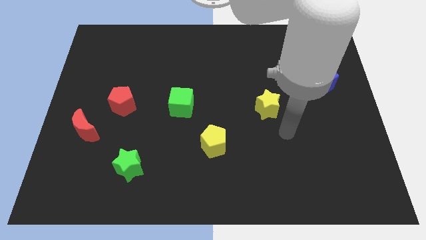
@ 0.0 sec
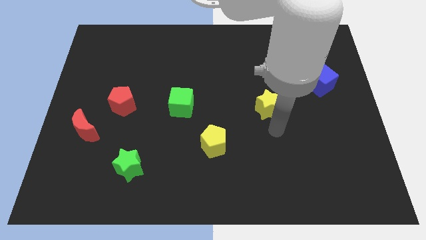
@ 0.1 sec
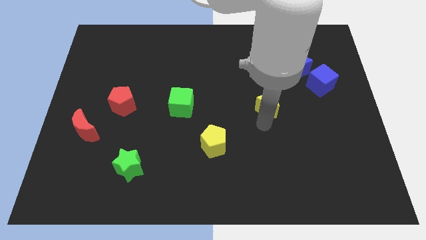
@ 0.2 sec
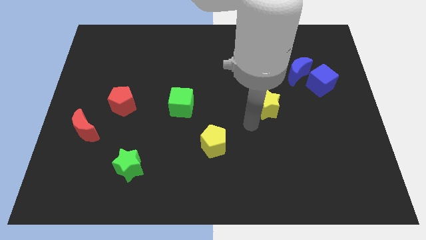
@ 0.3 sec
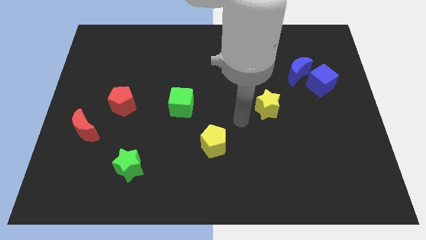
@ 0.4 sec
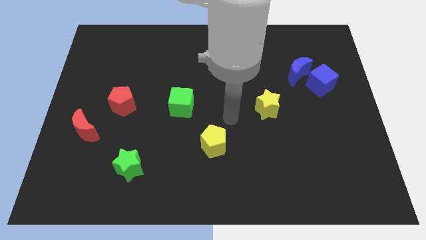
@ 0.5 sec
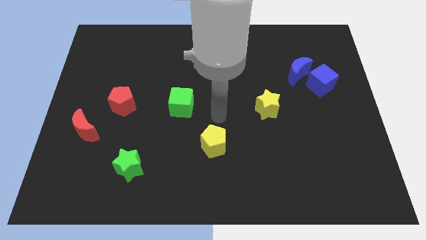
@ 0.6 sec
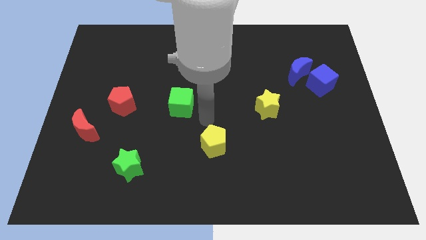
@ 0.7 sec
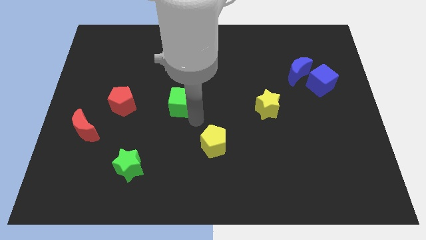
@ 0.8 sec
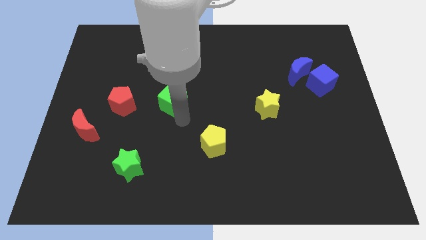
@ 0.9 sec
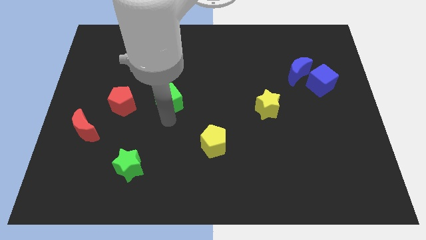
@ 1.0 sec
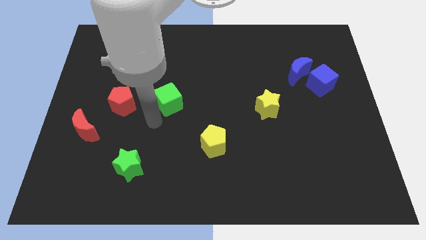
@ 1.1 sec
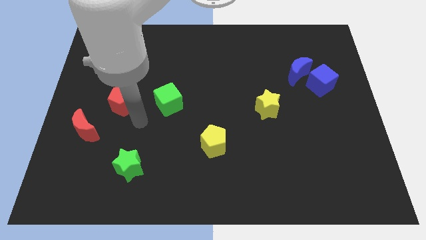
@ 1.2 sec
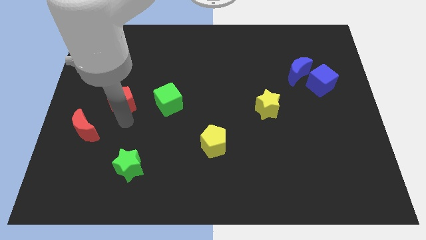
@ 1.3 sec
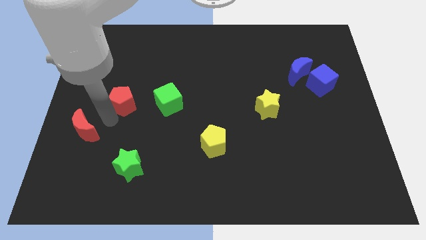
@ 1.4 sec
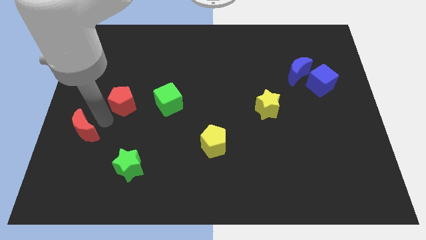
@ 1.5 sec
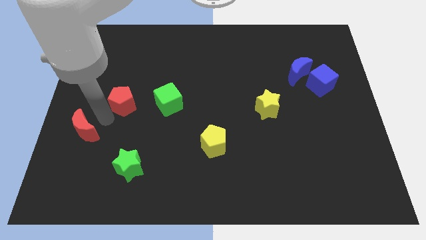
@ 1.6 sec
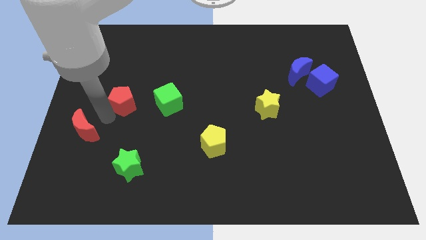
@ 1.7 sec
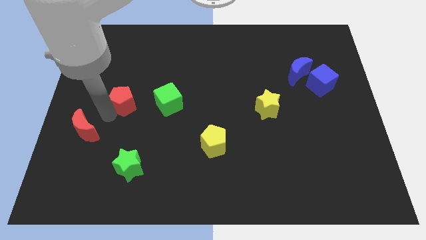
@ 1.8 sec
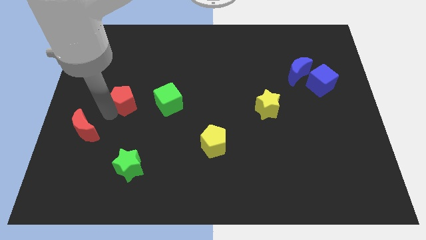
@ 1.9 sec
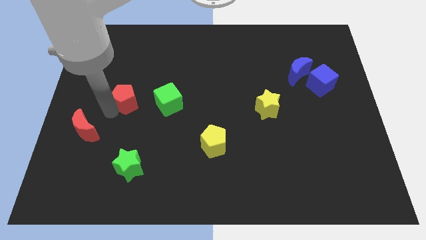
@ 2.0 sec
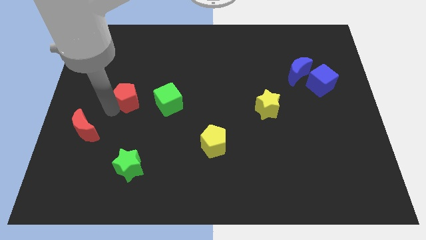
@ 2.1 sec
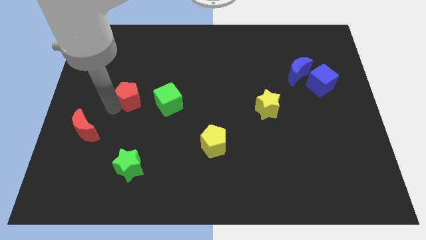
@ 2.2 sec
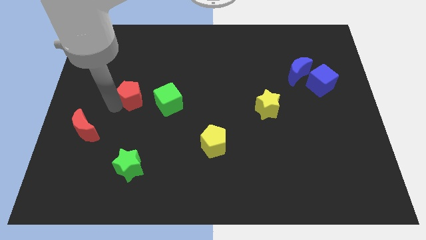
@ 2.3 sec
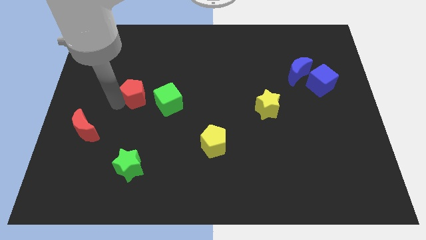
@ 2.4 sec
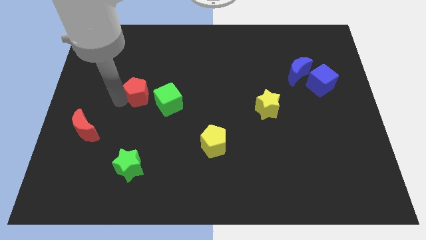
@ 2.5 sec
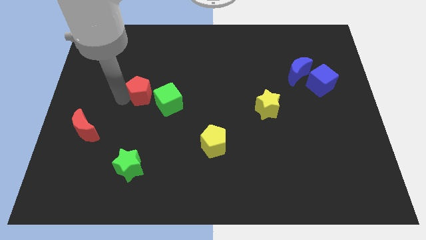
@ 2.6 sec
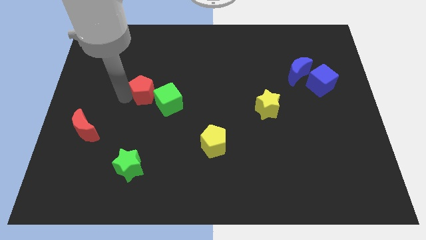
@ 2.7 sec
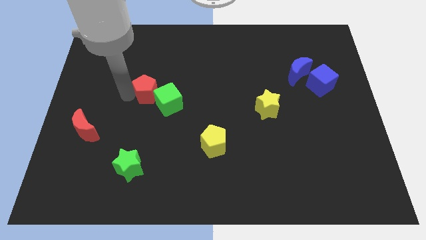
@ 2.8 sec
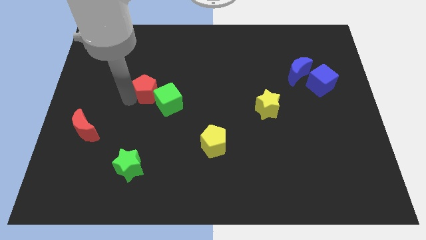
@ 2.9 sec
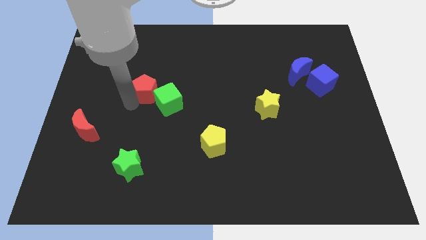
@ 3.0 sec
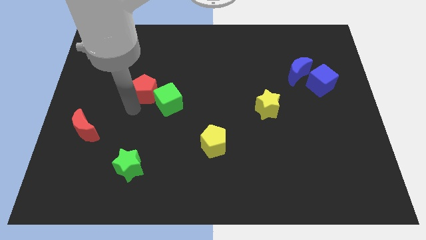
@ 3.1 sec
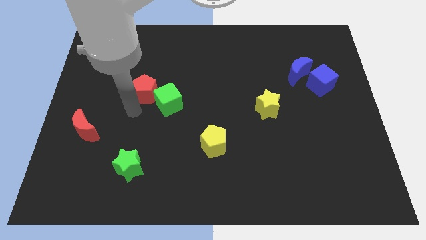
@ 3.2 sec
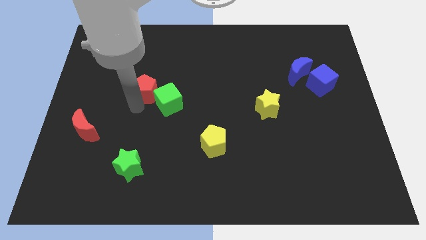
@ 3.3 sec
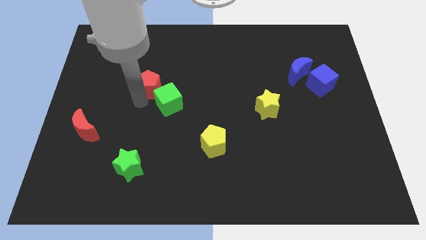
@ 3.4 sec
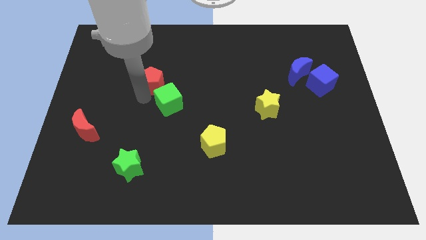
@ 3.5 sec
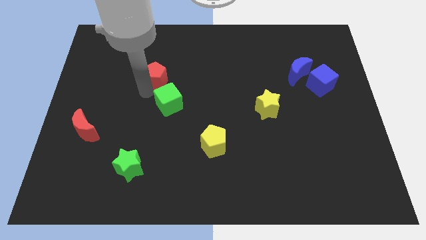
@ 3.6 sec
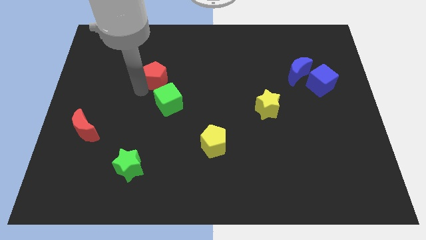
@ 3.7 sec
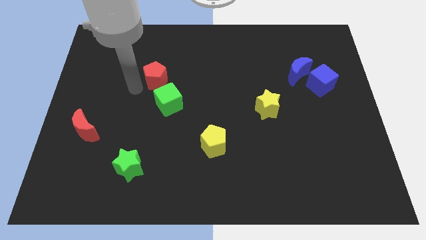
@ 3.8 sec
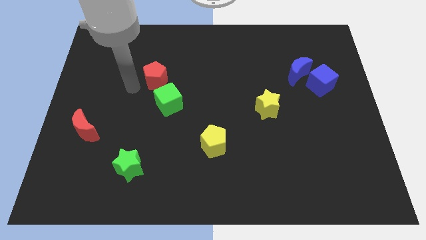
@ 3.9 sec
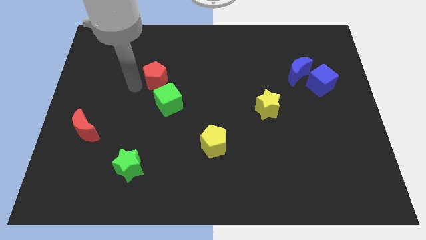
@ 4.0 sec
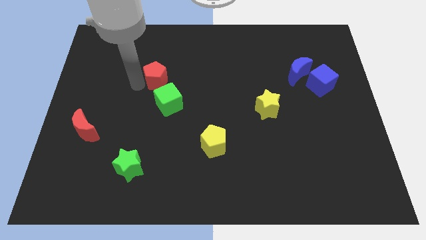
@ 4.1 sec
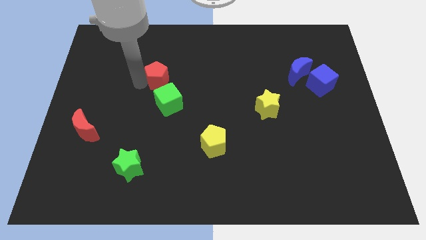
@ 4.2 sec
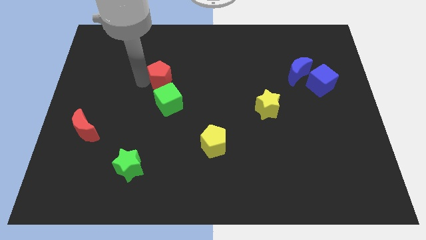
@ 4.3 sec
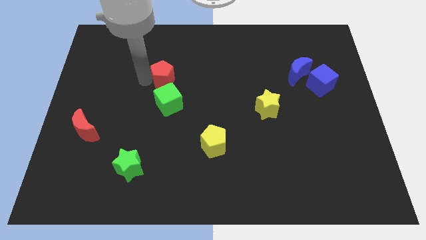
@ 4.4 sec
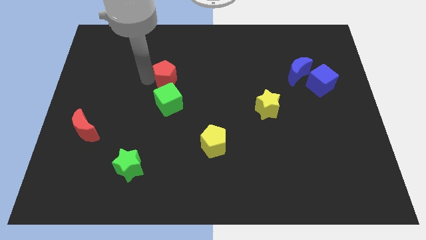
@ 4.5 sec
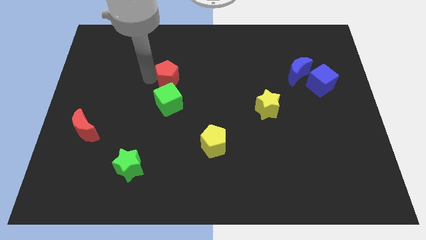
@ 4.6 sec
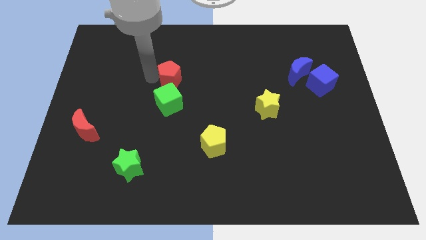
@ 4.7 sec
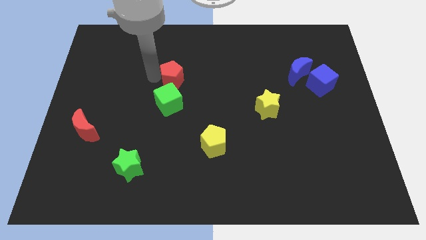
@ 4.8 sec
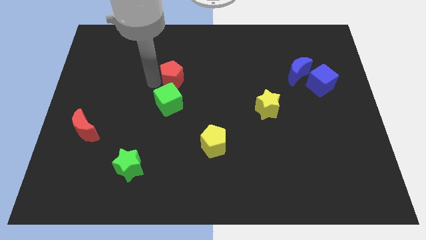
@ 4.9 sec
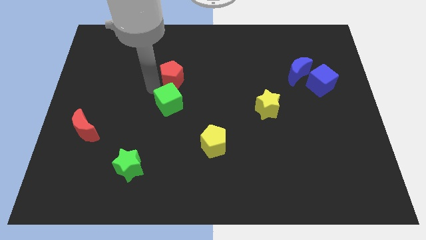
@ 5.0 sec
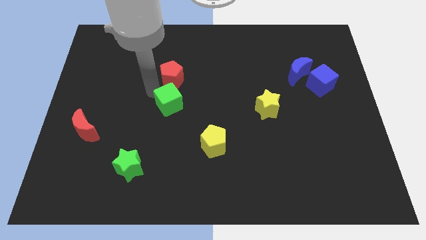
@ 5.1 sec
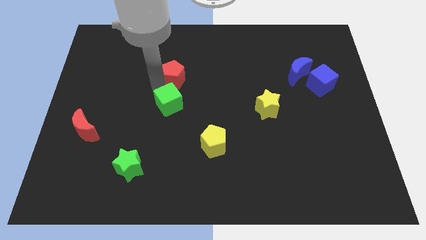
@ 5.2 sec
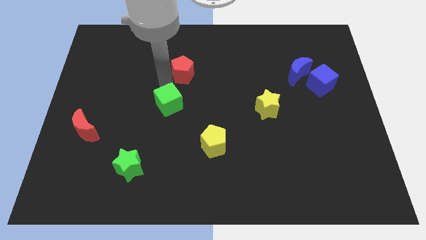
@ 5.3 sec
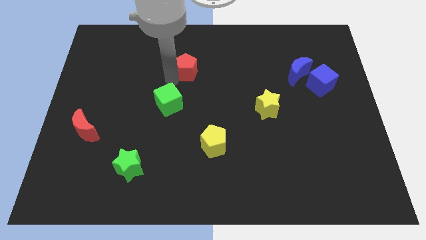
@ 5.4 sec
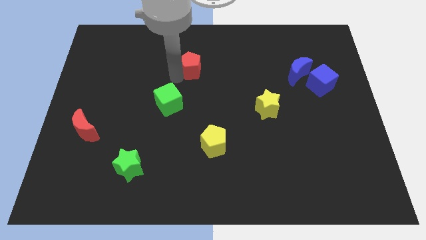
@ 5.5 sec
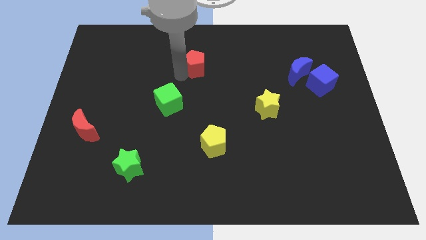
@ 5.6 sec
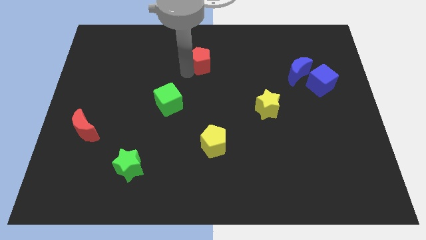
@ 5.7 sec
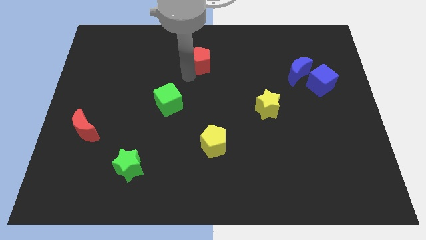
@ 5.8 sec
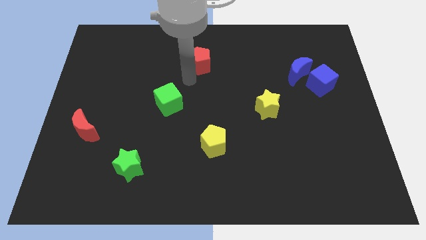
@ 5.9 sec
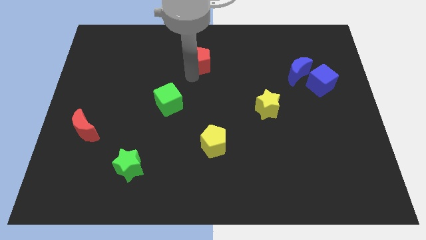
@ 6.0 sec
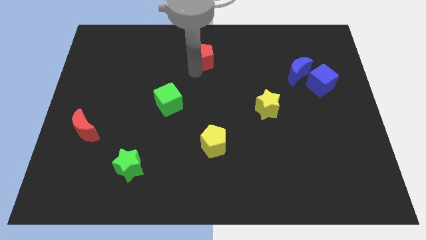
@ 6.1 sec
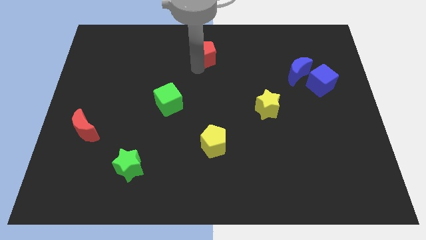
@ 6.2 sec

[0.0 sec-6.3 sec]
push the red pentagon to the towards your base
